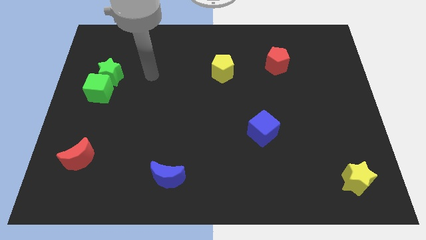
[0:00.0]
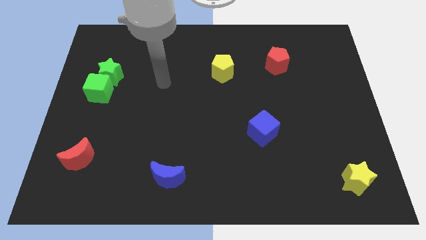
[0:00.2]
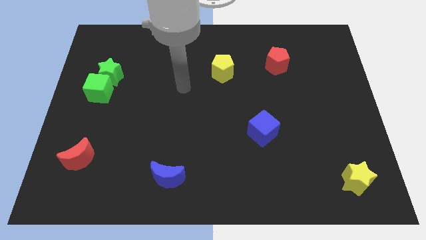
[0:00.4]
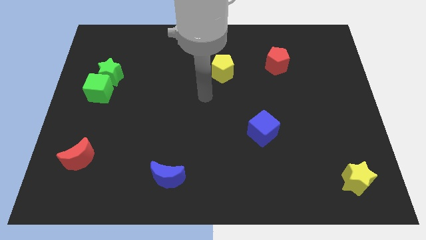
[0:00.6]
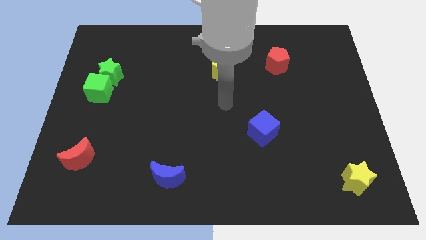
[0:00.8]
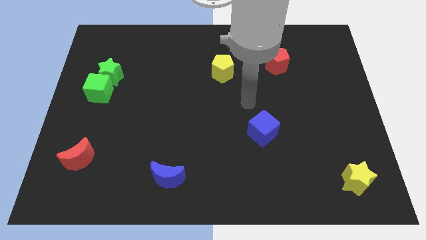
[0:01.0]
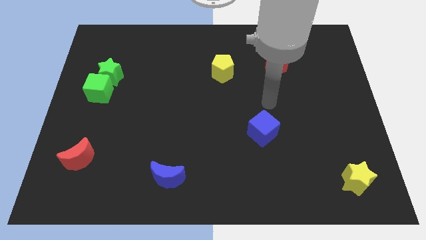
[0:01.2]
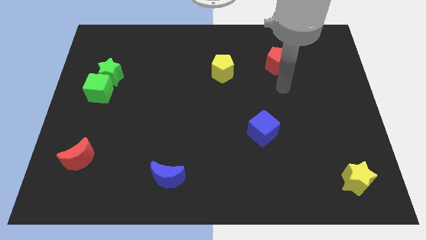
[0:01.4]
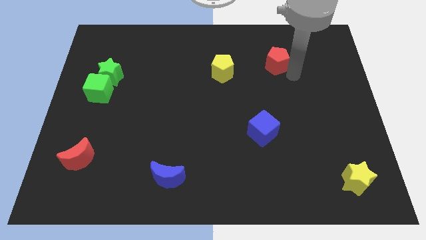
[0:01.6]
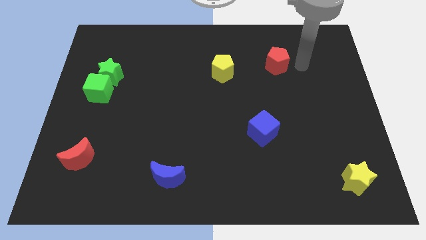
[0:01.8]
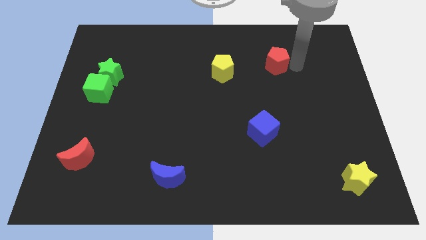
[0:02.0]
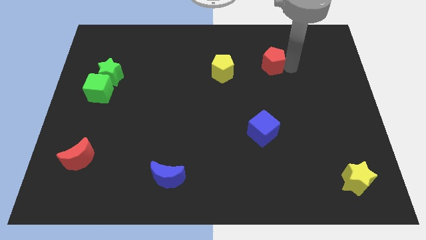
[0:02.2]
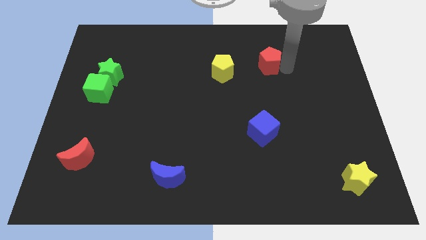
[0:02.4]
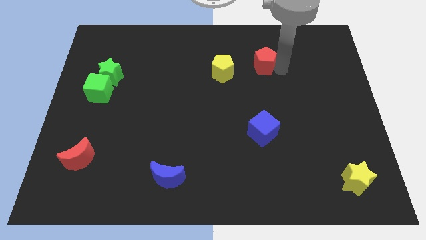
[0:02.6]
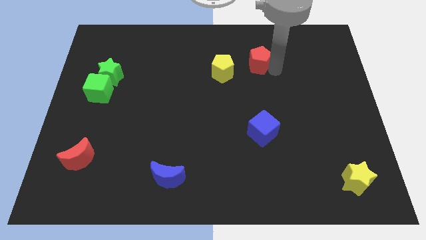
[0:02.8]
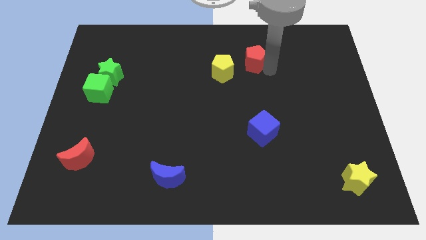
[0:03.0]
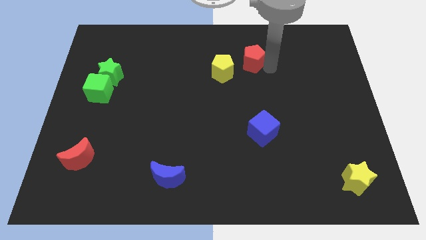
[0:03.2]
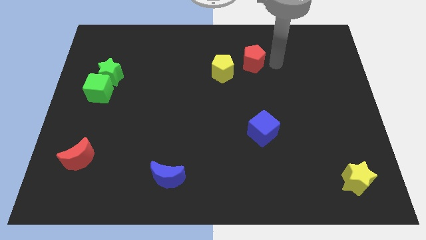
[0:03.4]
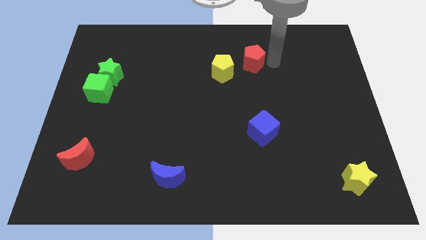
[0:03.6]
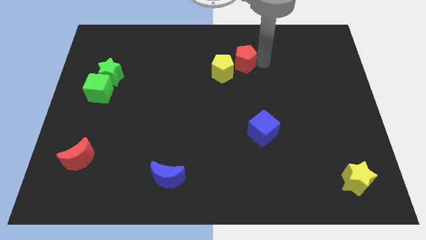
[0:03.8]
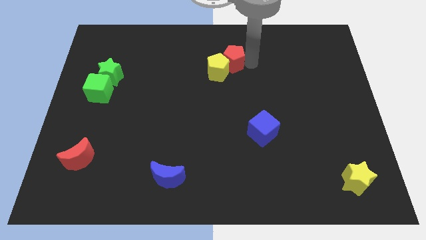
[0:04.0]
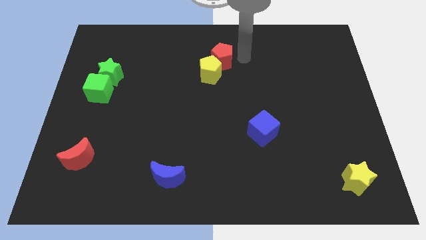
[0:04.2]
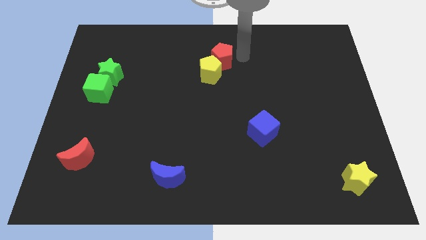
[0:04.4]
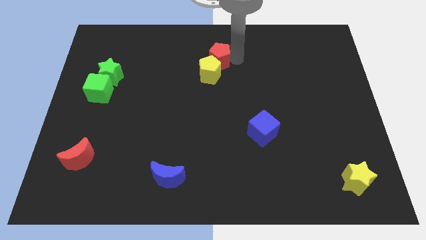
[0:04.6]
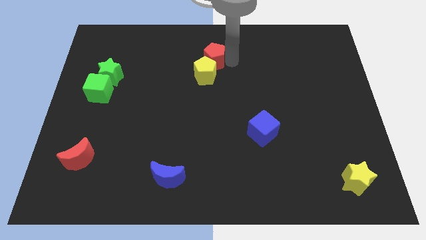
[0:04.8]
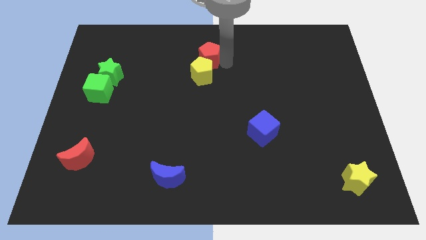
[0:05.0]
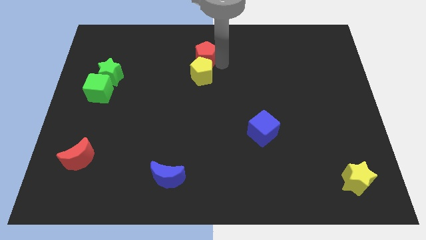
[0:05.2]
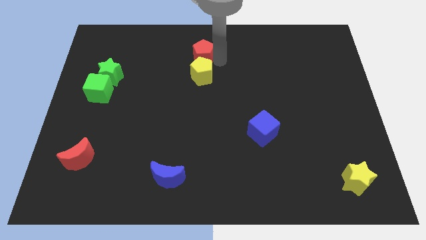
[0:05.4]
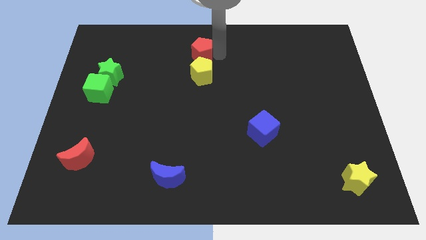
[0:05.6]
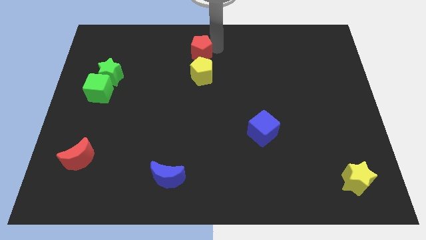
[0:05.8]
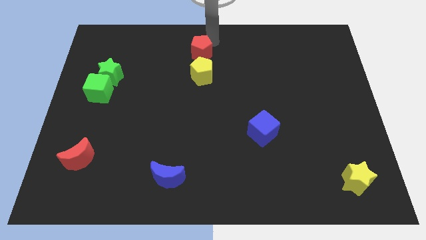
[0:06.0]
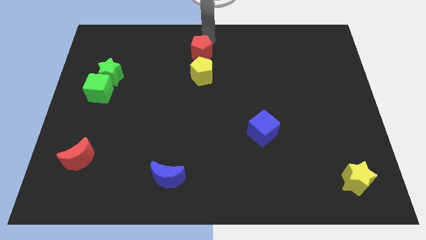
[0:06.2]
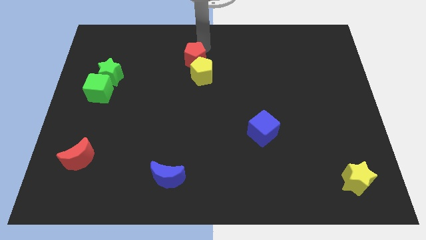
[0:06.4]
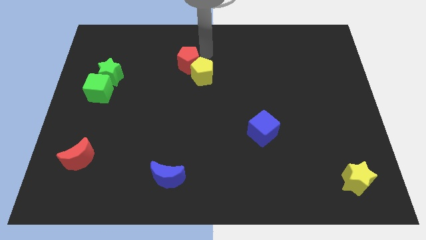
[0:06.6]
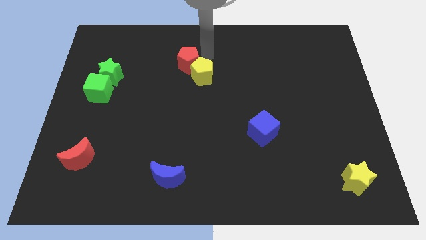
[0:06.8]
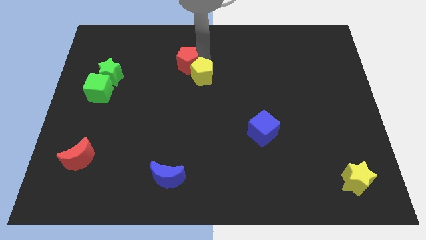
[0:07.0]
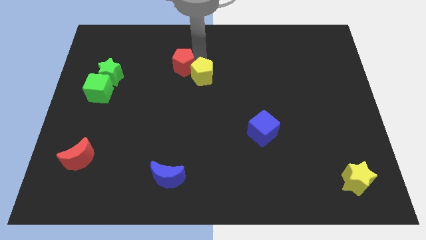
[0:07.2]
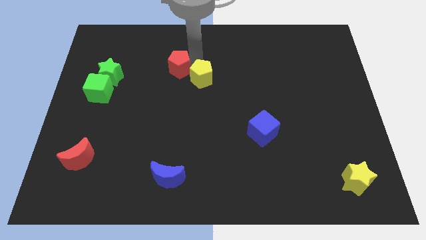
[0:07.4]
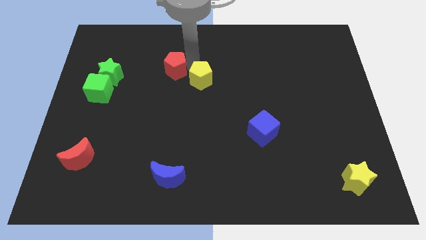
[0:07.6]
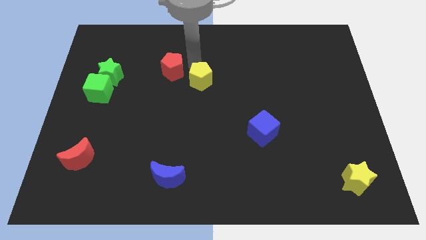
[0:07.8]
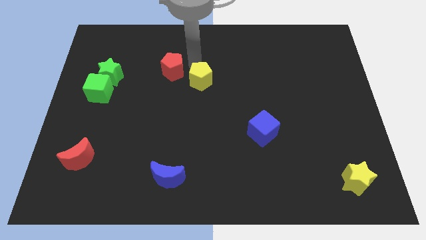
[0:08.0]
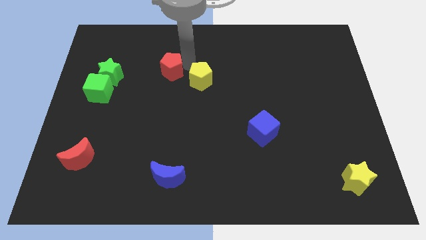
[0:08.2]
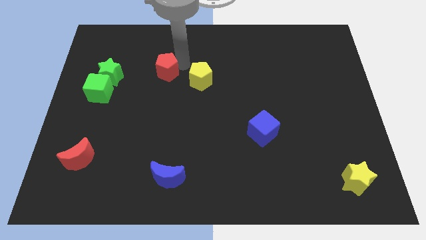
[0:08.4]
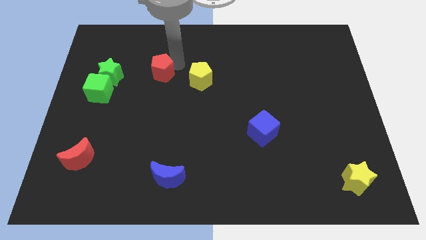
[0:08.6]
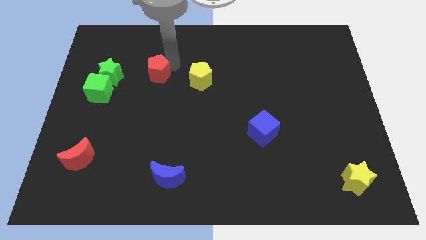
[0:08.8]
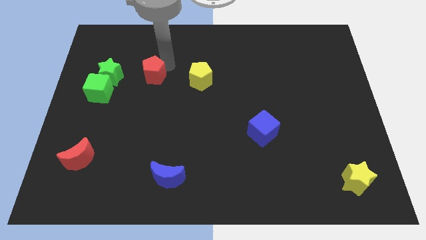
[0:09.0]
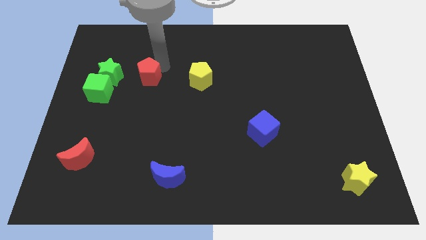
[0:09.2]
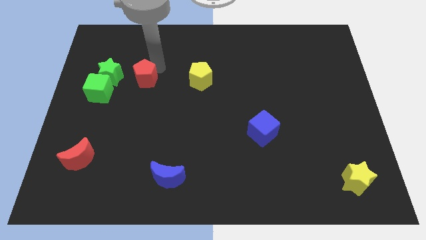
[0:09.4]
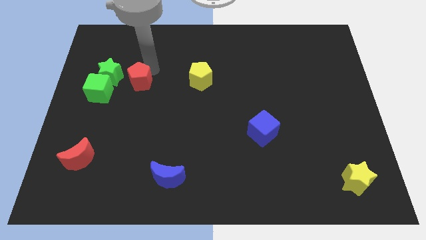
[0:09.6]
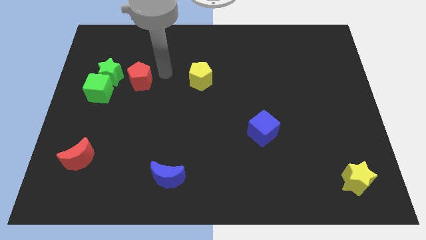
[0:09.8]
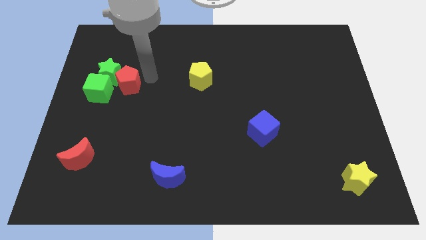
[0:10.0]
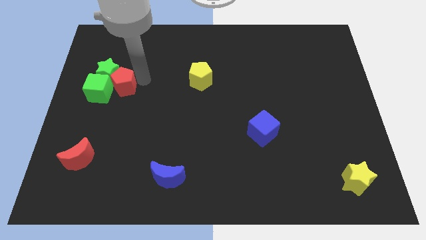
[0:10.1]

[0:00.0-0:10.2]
push the red pentagon next to the green cube

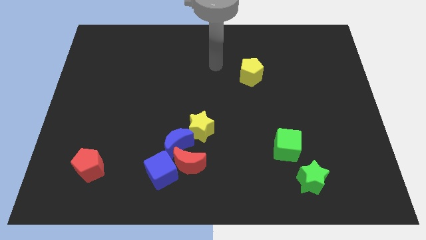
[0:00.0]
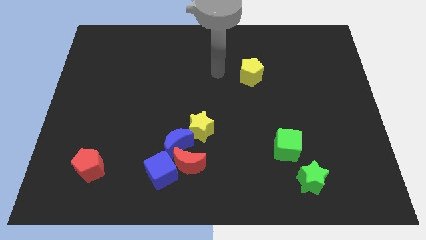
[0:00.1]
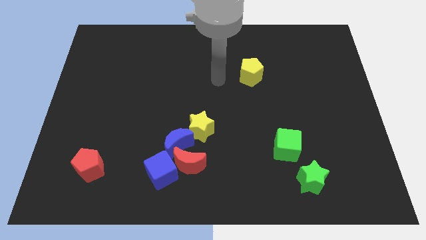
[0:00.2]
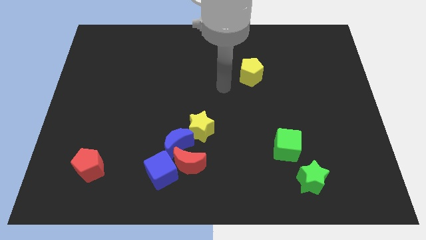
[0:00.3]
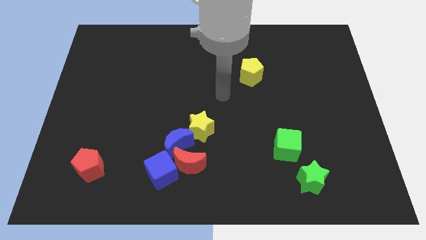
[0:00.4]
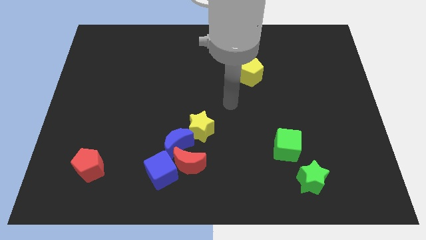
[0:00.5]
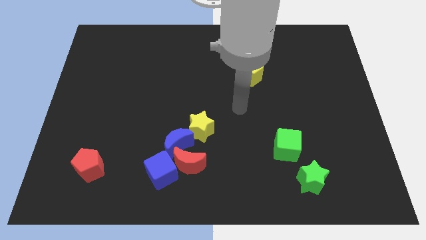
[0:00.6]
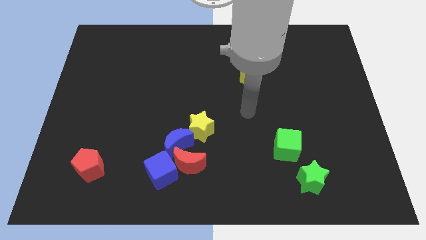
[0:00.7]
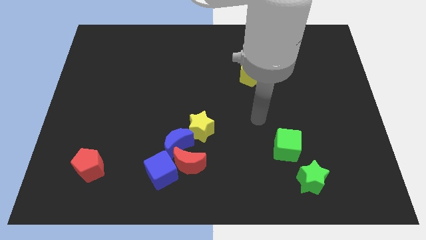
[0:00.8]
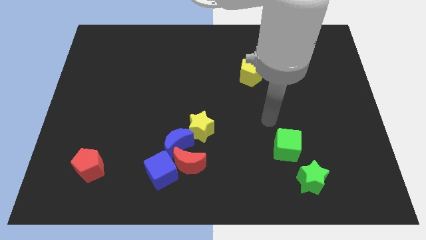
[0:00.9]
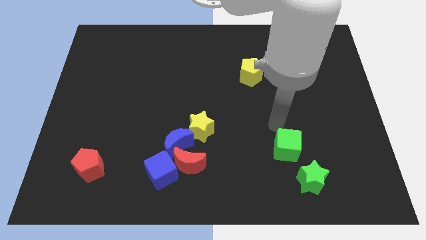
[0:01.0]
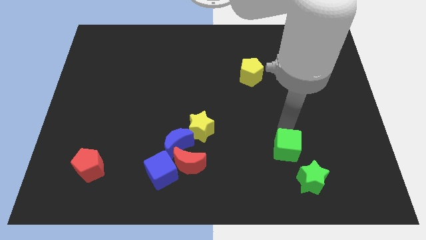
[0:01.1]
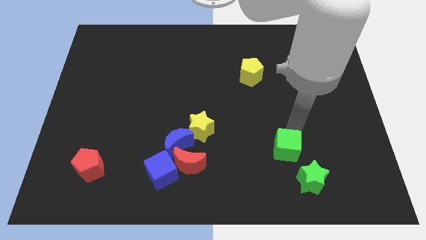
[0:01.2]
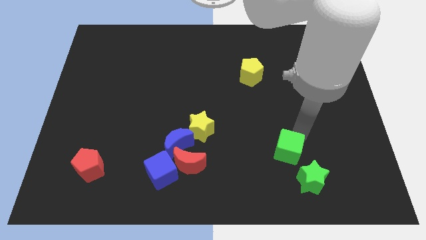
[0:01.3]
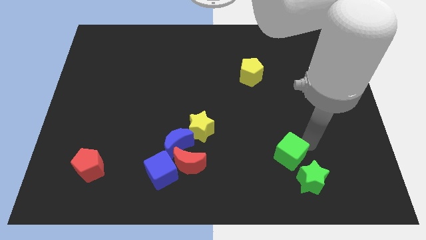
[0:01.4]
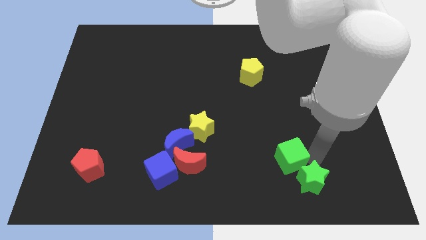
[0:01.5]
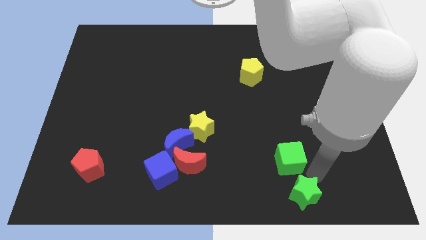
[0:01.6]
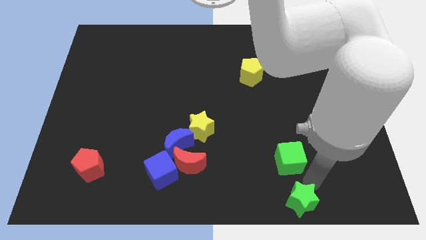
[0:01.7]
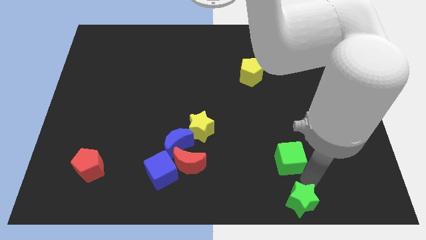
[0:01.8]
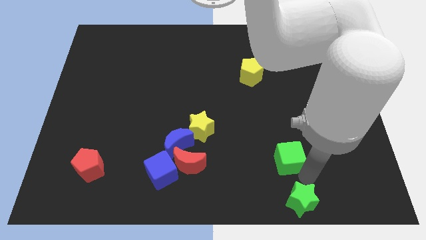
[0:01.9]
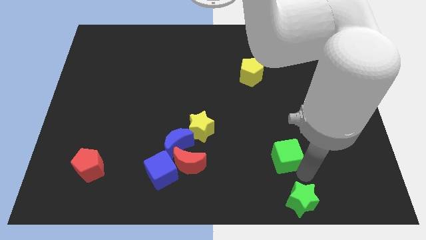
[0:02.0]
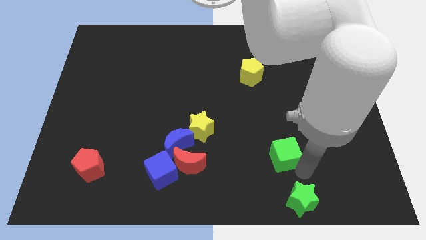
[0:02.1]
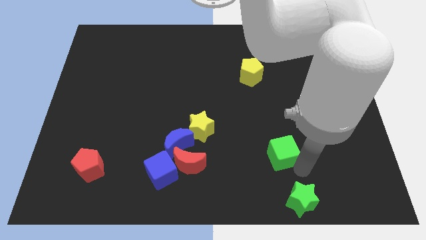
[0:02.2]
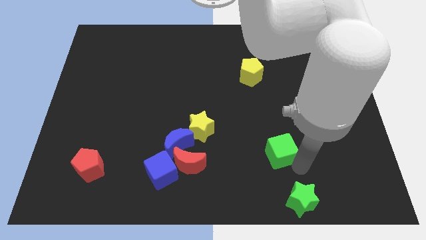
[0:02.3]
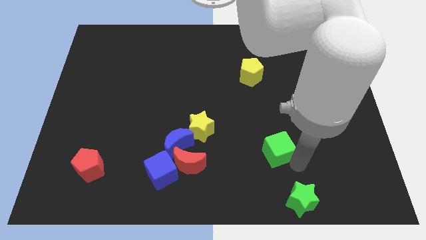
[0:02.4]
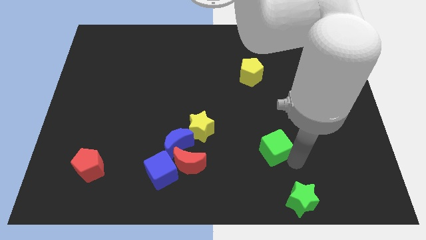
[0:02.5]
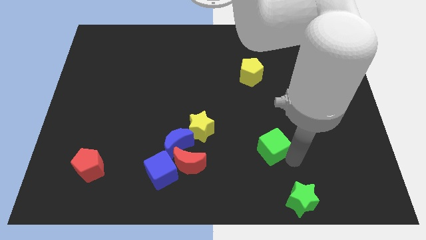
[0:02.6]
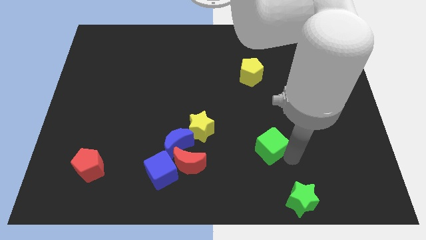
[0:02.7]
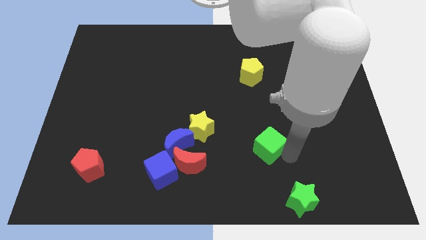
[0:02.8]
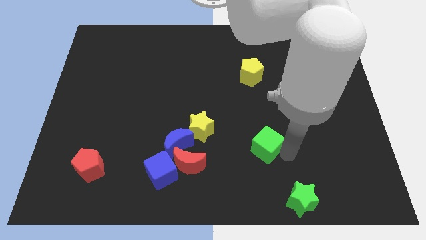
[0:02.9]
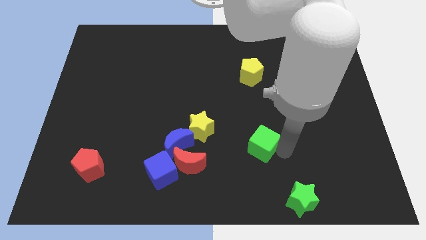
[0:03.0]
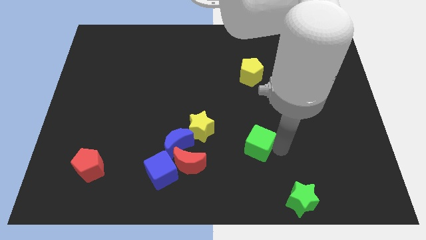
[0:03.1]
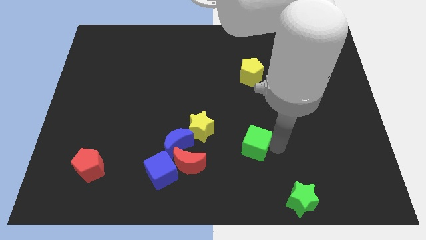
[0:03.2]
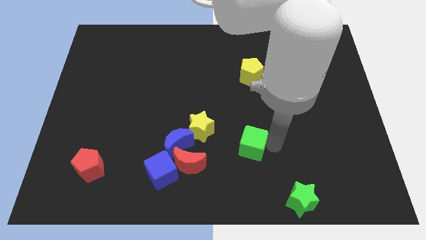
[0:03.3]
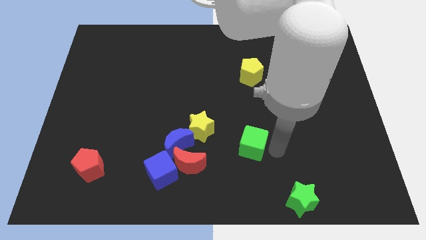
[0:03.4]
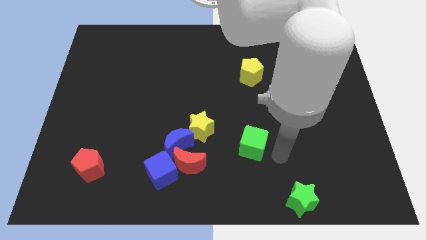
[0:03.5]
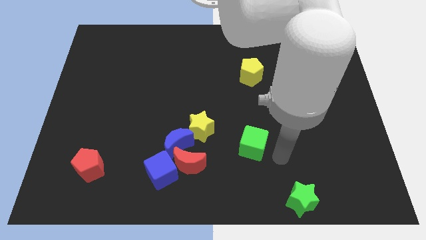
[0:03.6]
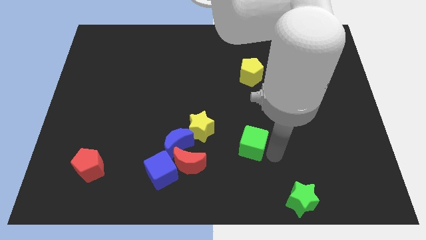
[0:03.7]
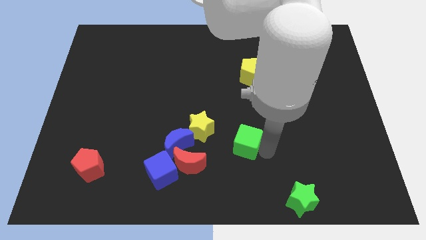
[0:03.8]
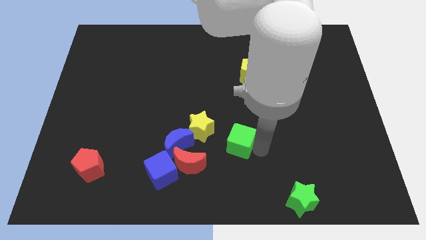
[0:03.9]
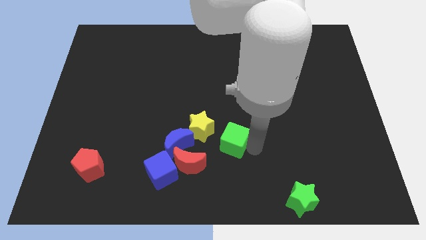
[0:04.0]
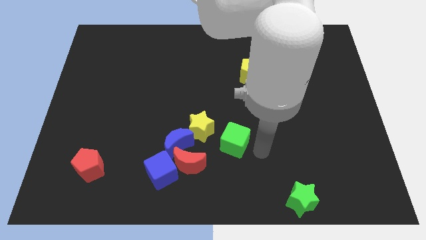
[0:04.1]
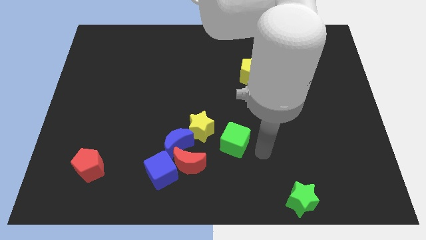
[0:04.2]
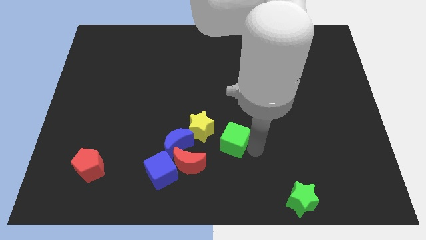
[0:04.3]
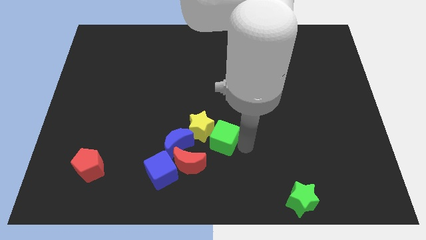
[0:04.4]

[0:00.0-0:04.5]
put the green cube to the yellow star
